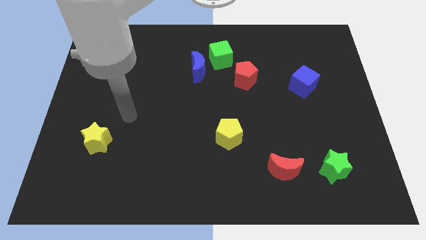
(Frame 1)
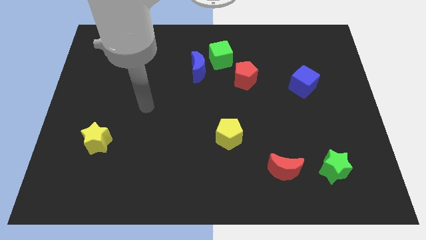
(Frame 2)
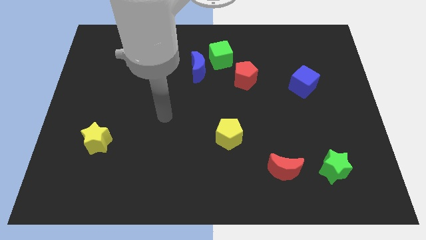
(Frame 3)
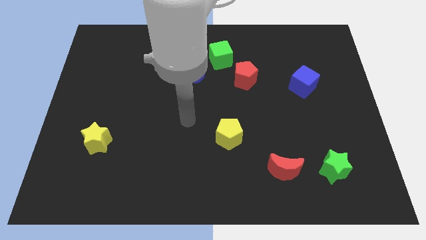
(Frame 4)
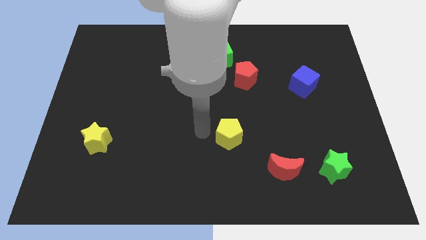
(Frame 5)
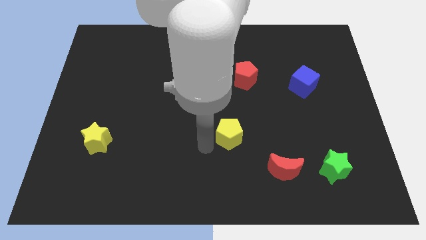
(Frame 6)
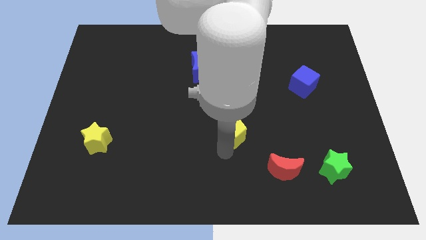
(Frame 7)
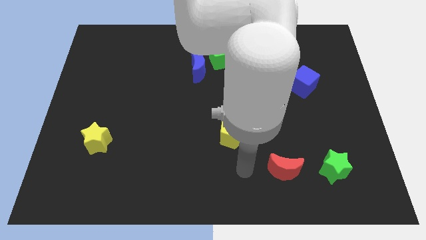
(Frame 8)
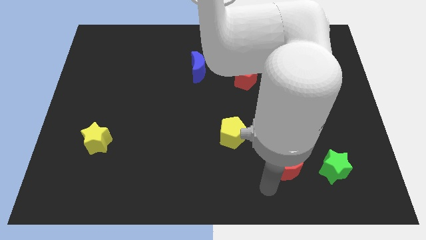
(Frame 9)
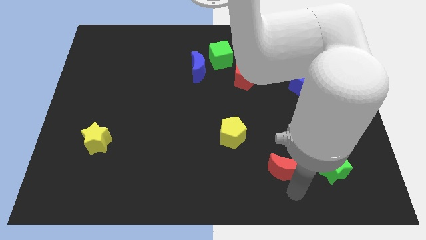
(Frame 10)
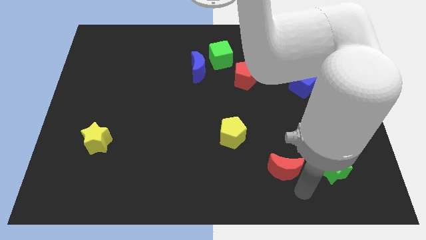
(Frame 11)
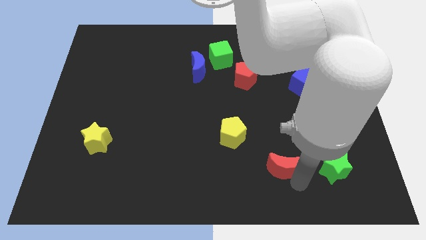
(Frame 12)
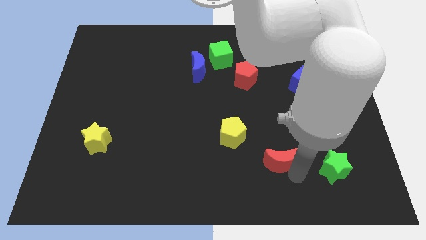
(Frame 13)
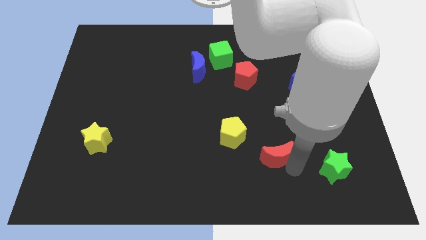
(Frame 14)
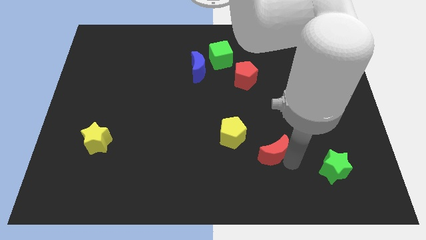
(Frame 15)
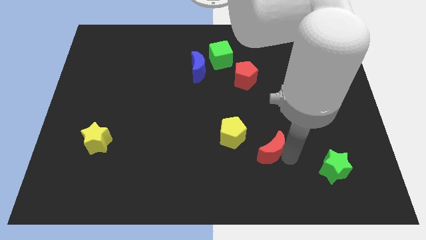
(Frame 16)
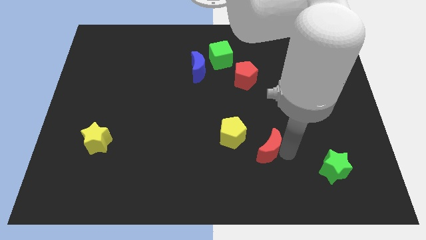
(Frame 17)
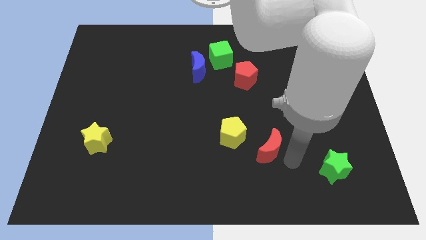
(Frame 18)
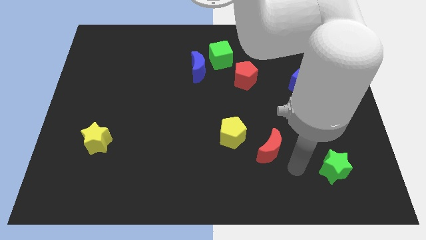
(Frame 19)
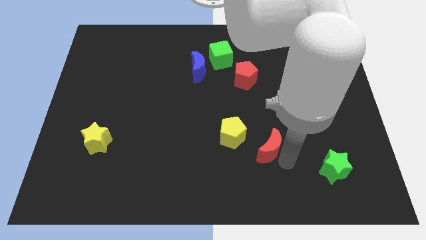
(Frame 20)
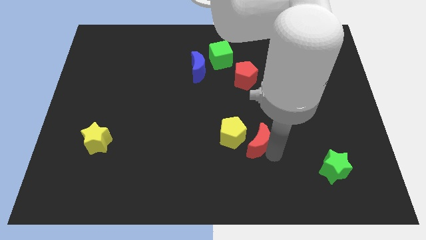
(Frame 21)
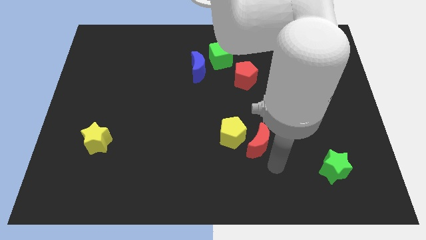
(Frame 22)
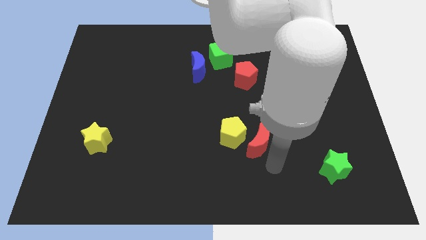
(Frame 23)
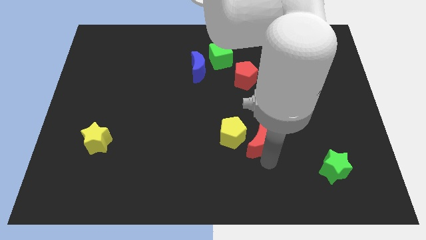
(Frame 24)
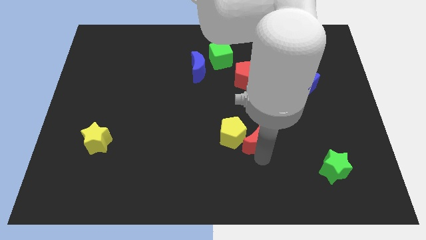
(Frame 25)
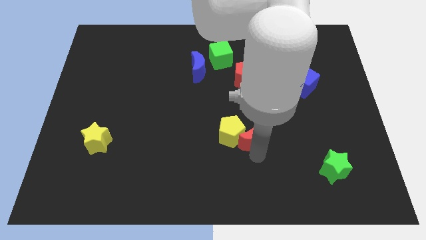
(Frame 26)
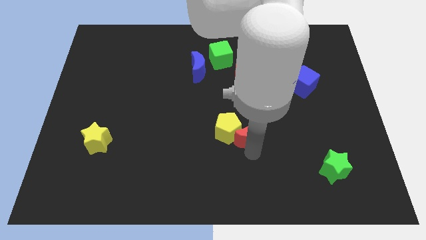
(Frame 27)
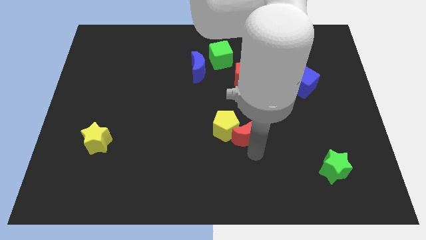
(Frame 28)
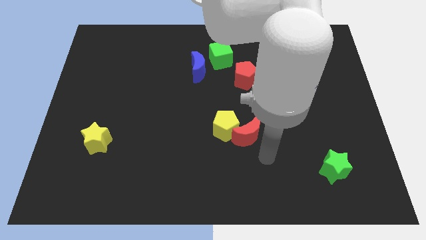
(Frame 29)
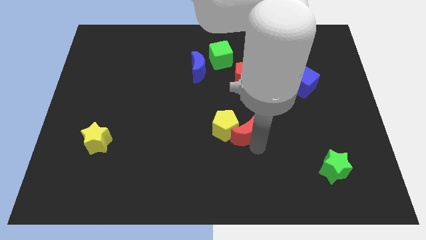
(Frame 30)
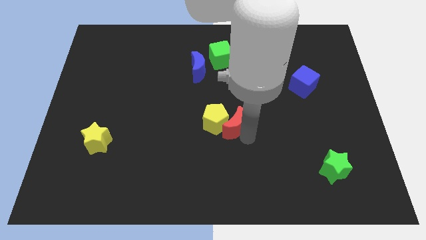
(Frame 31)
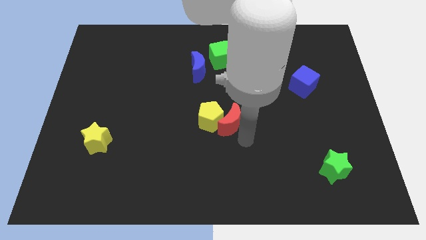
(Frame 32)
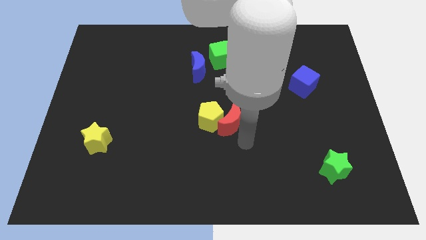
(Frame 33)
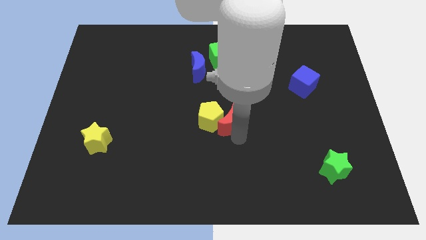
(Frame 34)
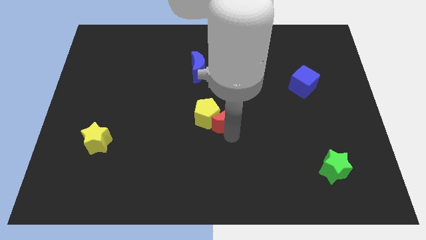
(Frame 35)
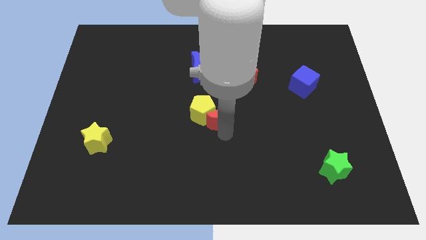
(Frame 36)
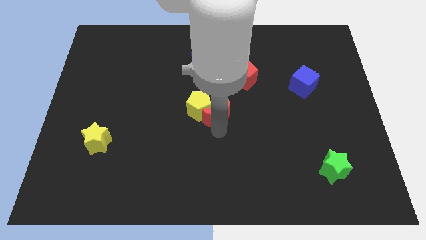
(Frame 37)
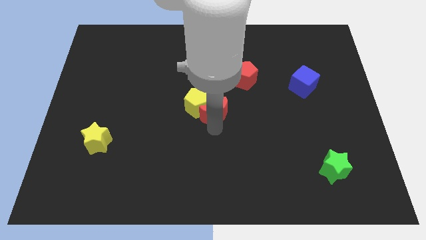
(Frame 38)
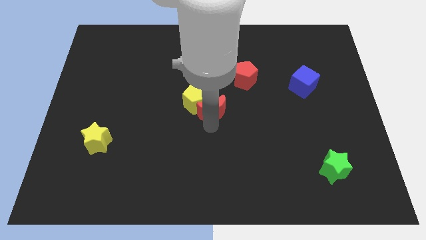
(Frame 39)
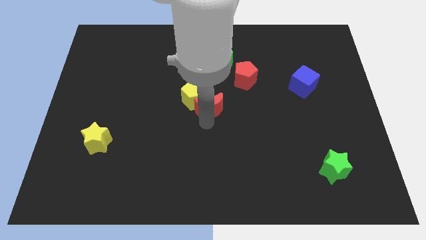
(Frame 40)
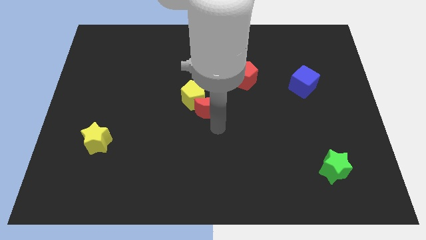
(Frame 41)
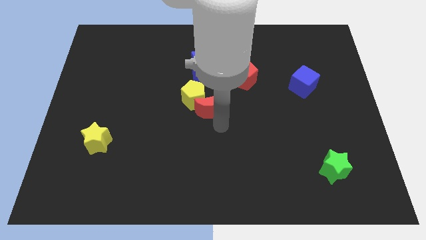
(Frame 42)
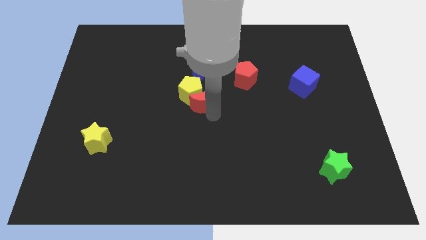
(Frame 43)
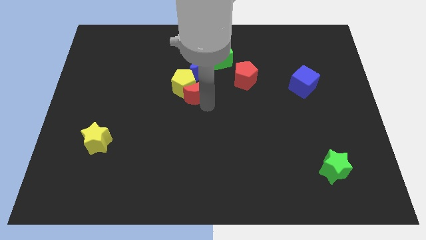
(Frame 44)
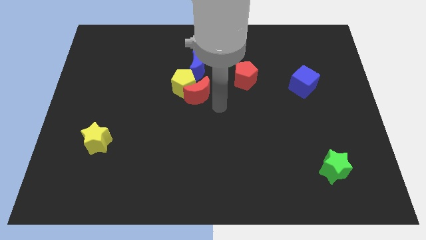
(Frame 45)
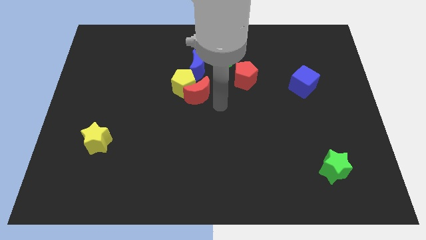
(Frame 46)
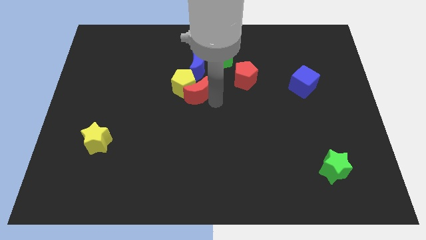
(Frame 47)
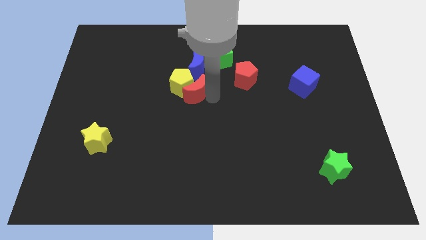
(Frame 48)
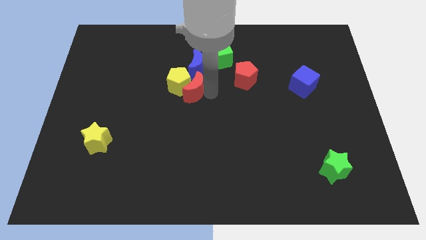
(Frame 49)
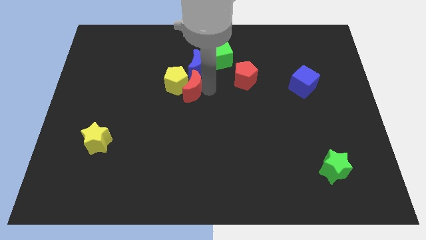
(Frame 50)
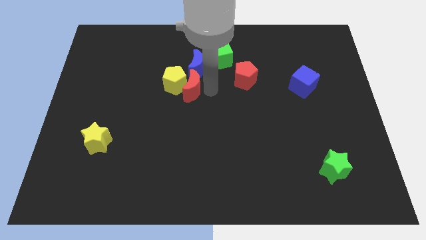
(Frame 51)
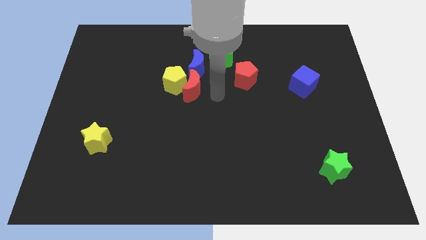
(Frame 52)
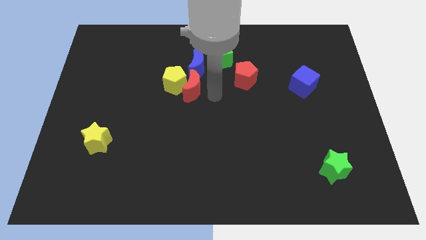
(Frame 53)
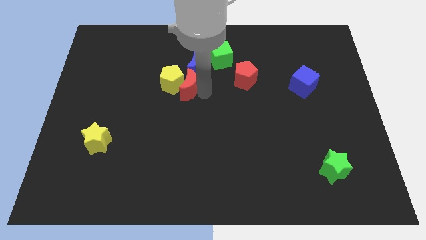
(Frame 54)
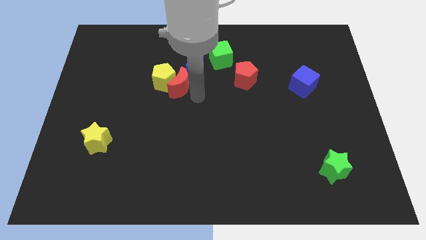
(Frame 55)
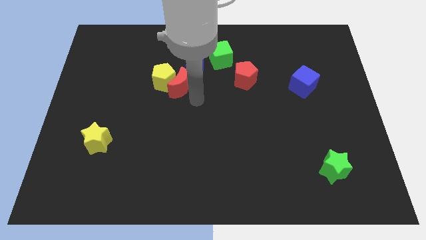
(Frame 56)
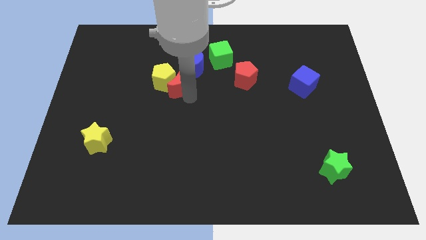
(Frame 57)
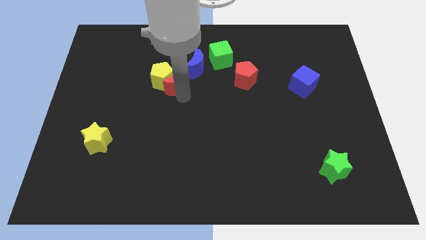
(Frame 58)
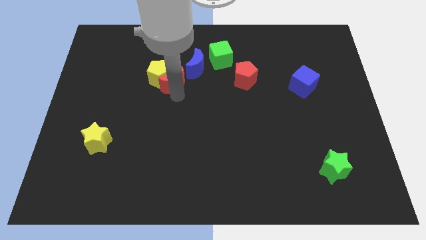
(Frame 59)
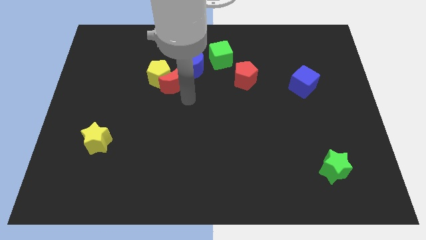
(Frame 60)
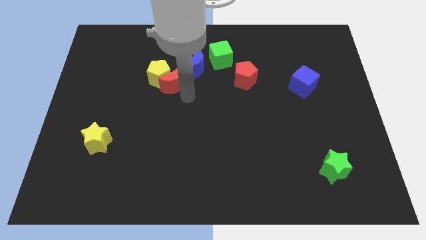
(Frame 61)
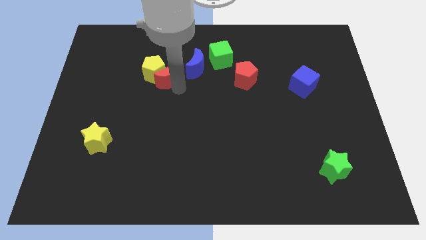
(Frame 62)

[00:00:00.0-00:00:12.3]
put the red moon to the left side of the blue moon

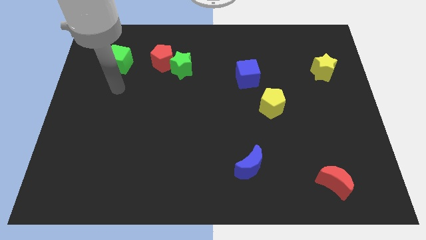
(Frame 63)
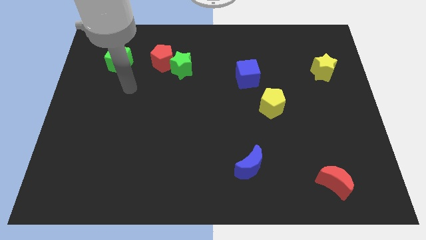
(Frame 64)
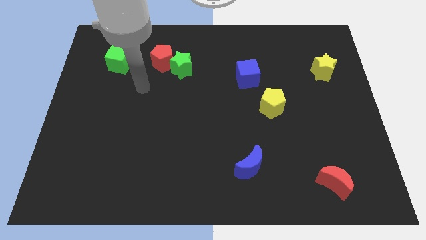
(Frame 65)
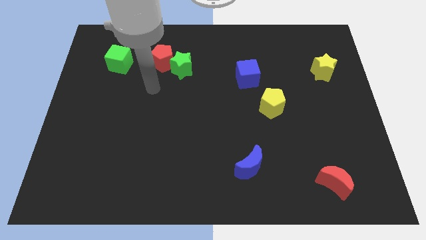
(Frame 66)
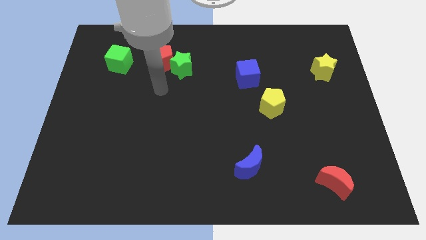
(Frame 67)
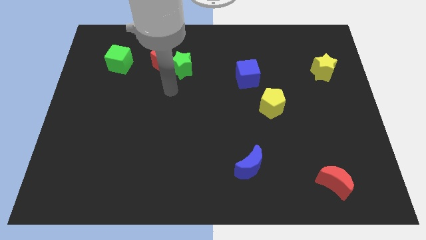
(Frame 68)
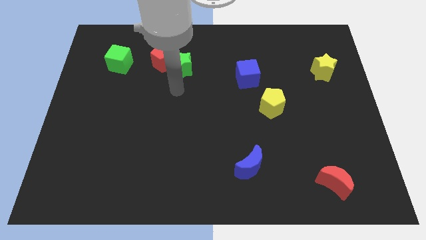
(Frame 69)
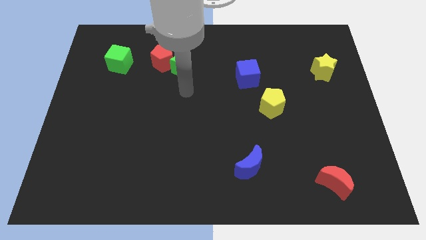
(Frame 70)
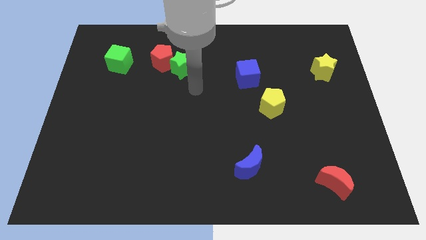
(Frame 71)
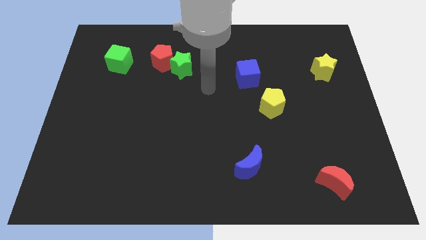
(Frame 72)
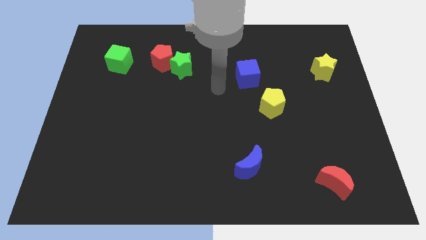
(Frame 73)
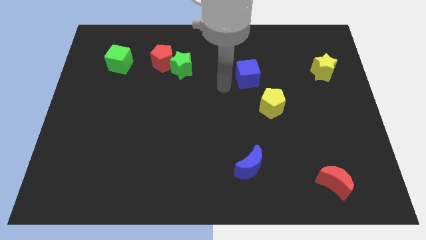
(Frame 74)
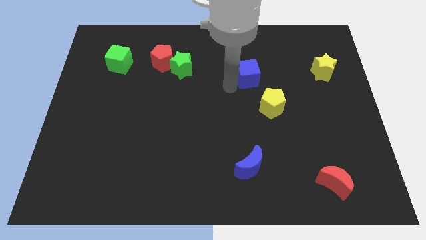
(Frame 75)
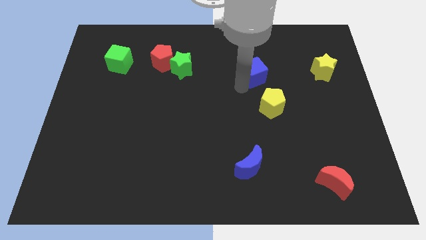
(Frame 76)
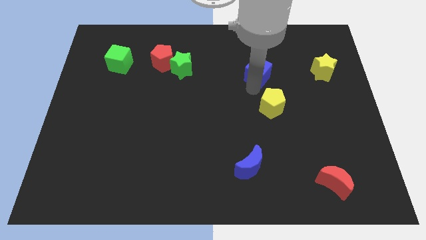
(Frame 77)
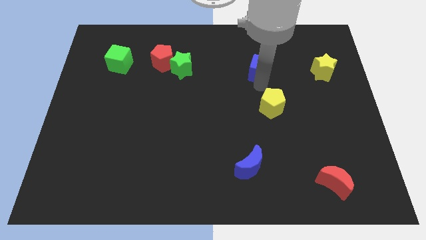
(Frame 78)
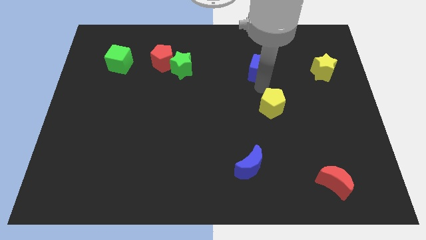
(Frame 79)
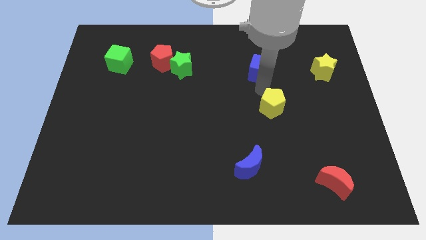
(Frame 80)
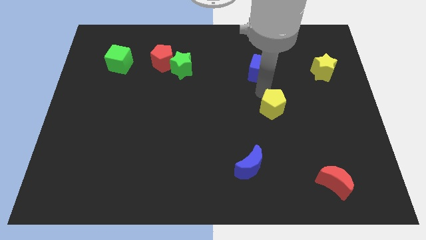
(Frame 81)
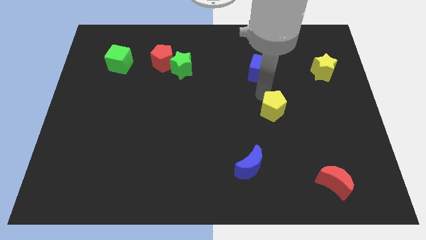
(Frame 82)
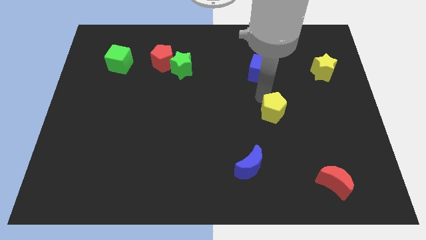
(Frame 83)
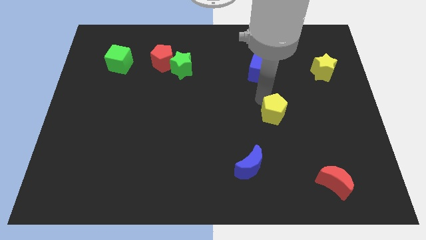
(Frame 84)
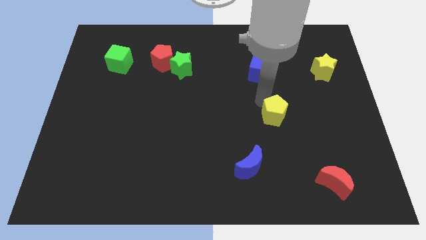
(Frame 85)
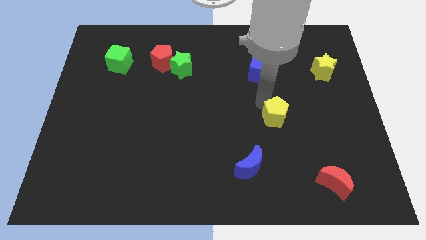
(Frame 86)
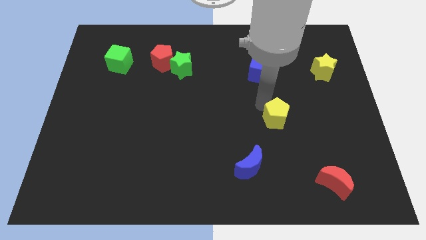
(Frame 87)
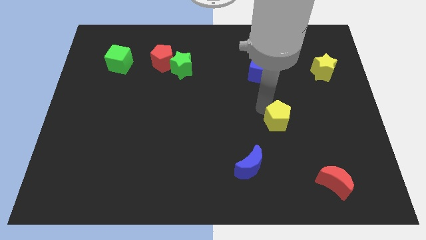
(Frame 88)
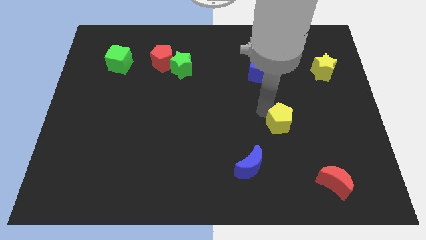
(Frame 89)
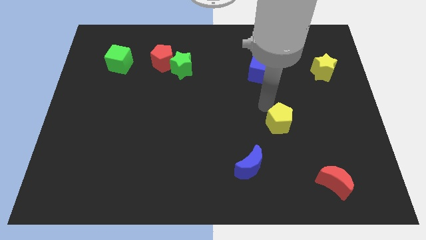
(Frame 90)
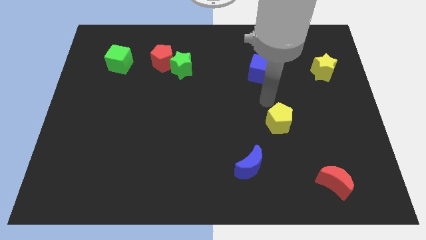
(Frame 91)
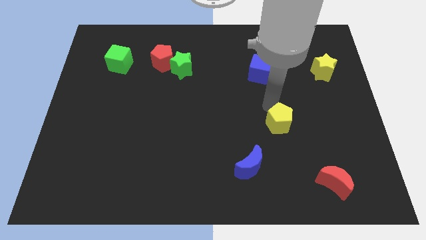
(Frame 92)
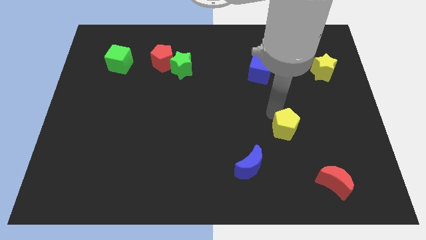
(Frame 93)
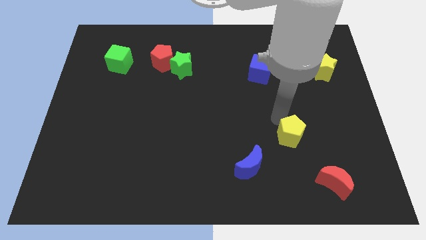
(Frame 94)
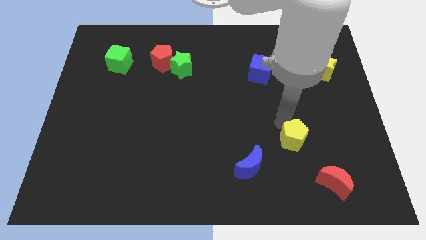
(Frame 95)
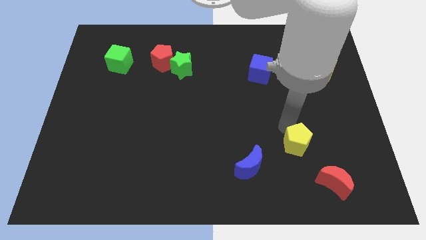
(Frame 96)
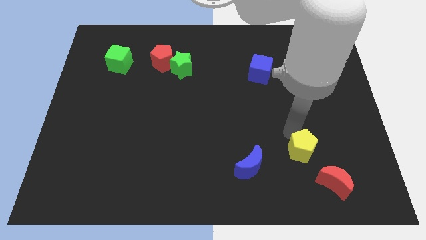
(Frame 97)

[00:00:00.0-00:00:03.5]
slide the yellow pentagon to the right of the blue moon
